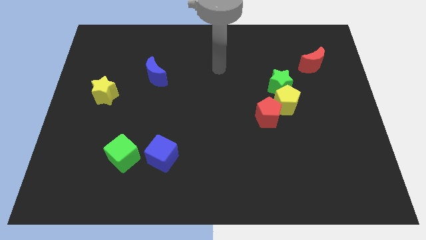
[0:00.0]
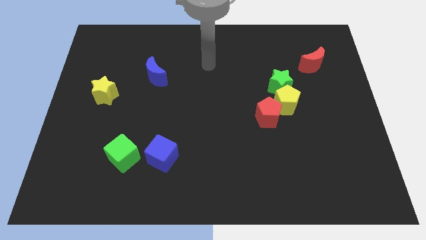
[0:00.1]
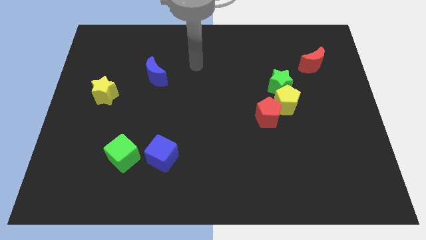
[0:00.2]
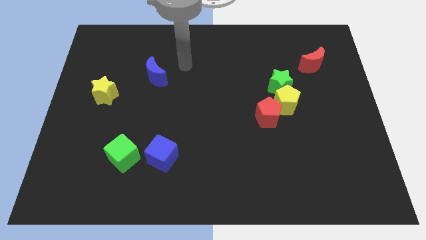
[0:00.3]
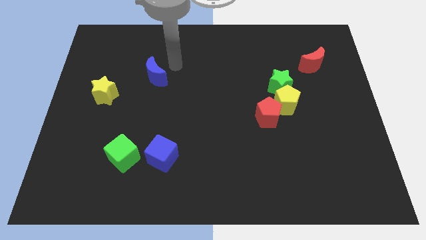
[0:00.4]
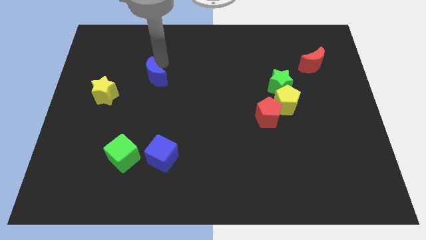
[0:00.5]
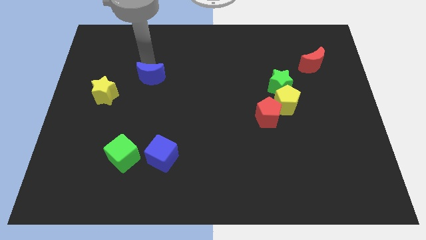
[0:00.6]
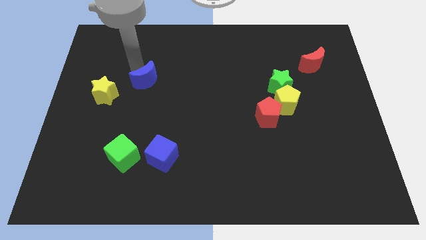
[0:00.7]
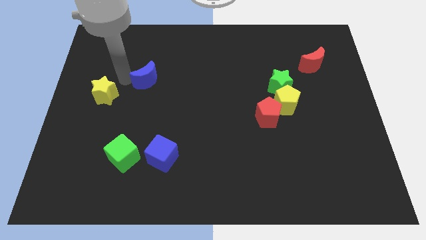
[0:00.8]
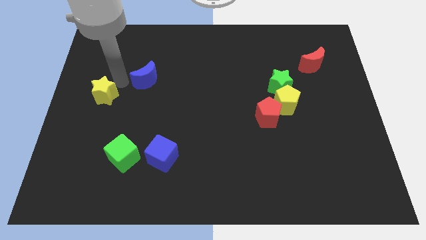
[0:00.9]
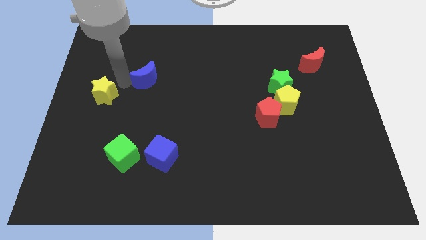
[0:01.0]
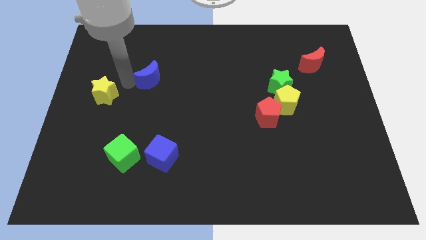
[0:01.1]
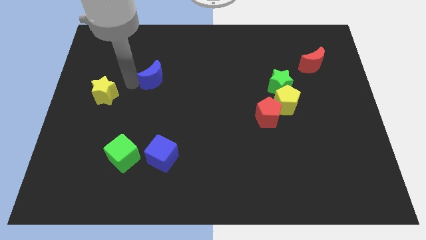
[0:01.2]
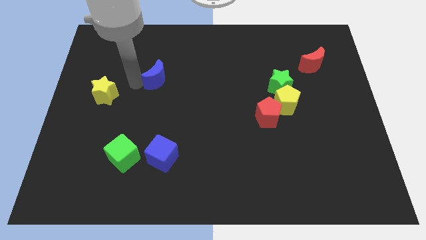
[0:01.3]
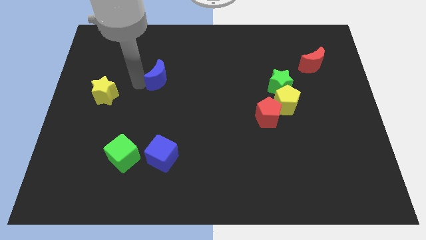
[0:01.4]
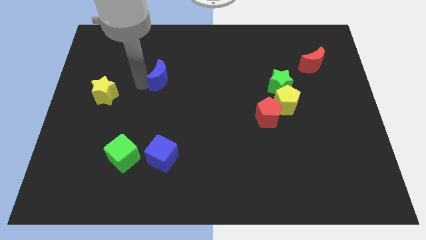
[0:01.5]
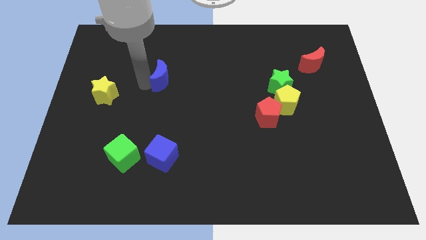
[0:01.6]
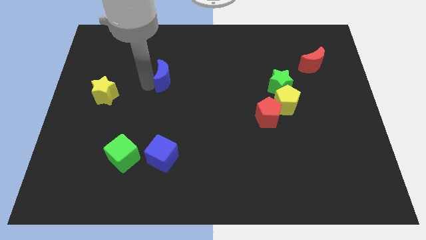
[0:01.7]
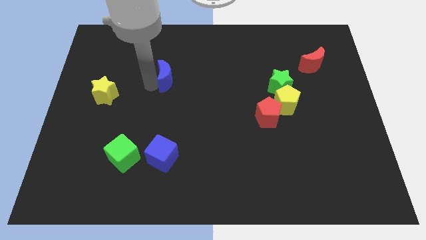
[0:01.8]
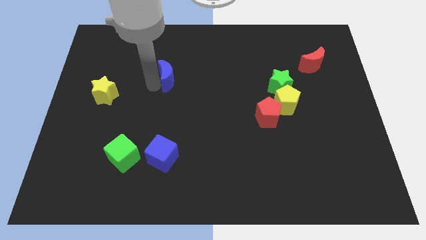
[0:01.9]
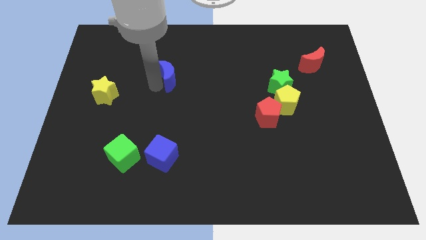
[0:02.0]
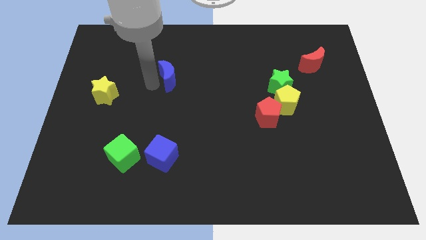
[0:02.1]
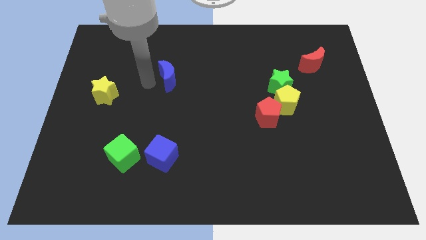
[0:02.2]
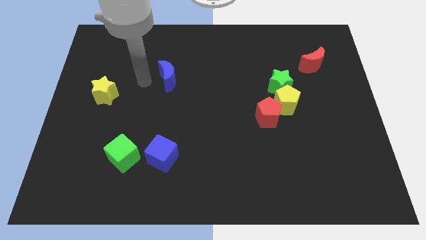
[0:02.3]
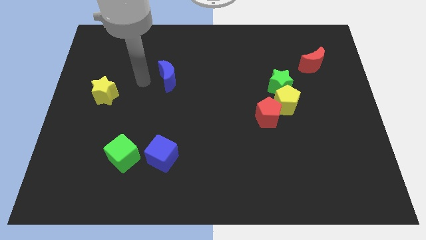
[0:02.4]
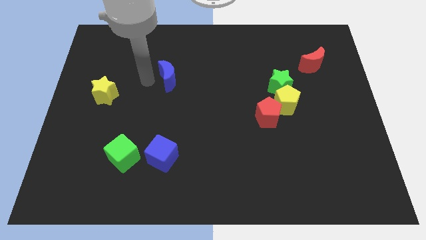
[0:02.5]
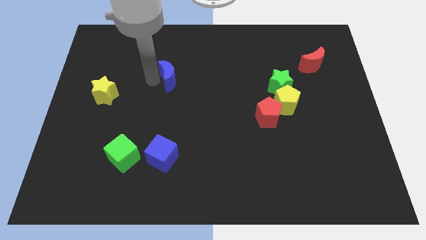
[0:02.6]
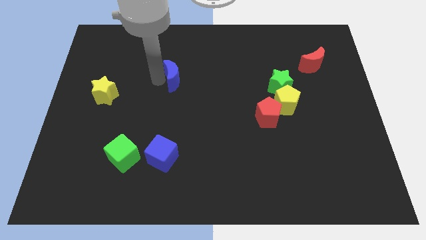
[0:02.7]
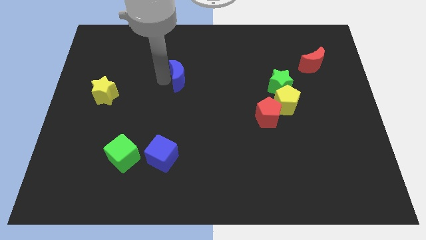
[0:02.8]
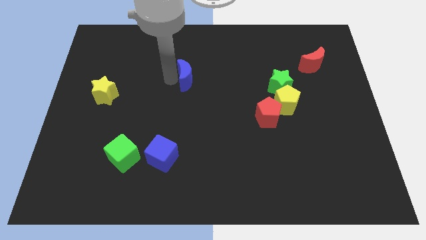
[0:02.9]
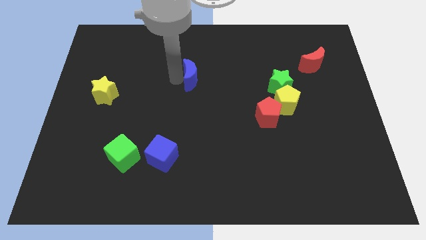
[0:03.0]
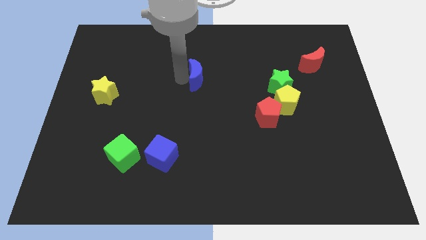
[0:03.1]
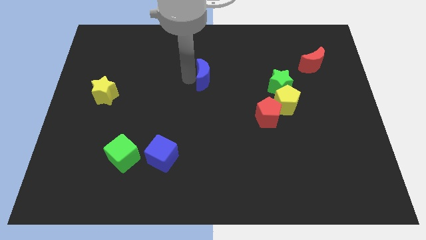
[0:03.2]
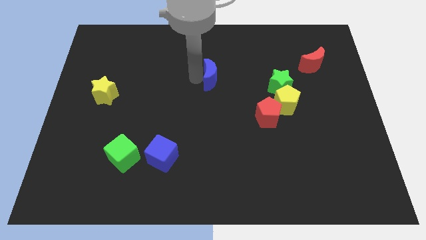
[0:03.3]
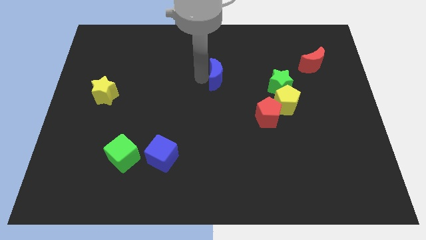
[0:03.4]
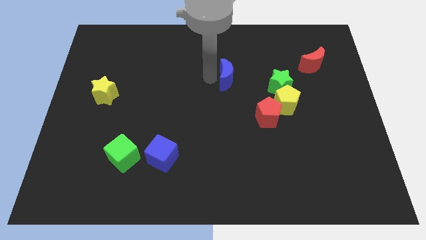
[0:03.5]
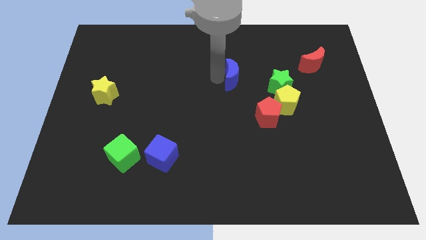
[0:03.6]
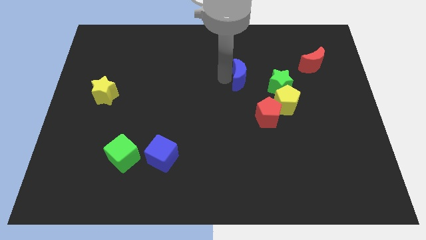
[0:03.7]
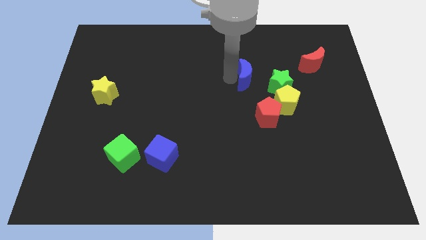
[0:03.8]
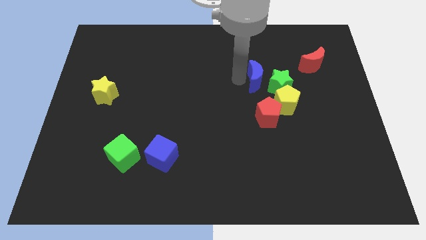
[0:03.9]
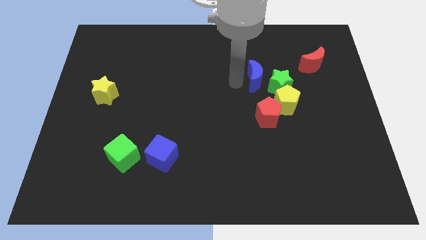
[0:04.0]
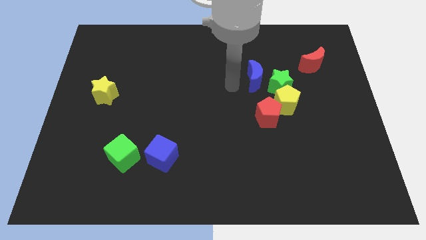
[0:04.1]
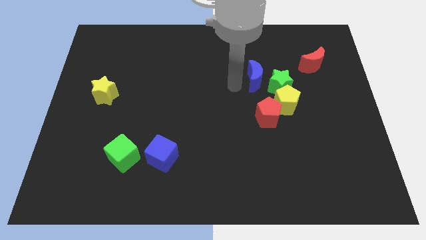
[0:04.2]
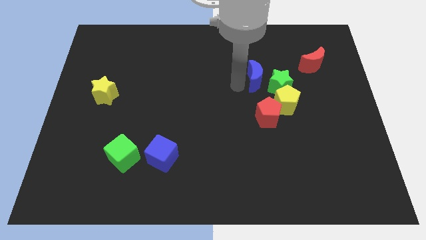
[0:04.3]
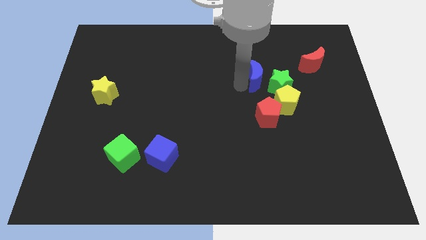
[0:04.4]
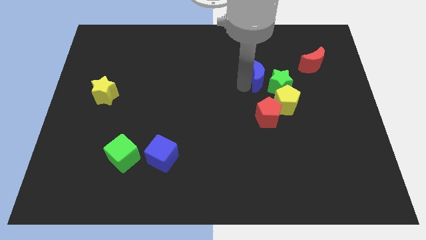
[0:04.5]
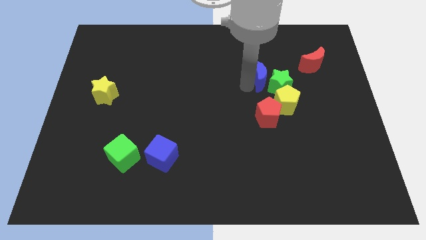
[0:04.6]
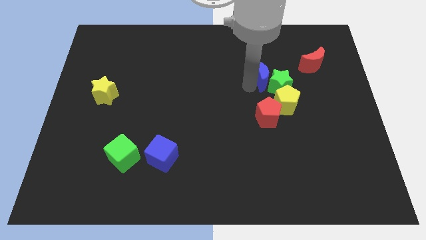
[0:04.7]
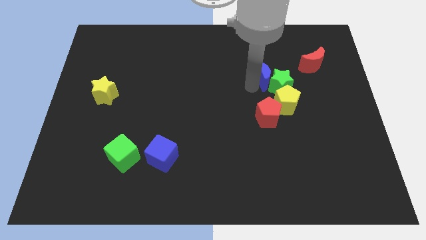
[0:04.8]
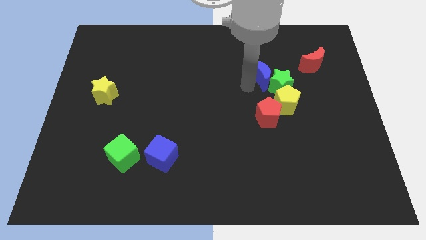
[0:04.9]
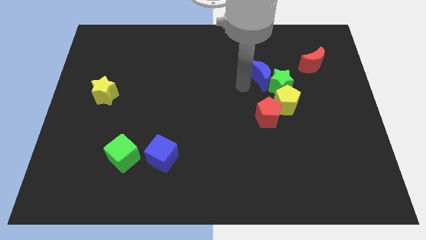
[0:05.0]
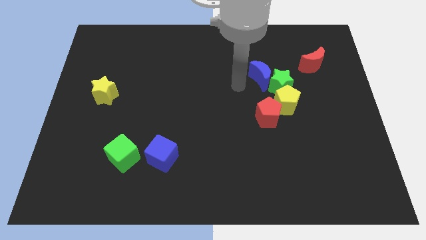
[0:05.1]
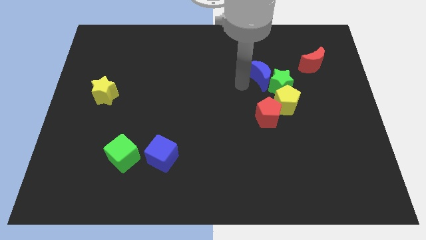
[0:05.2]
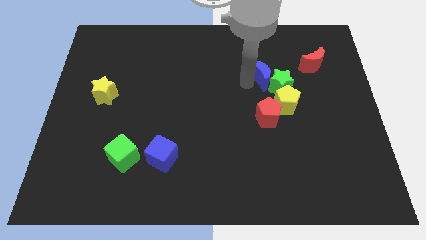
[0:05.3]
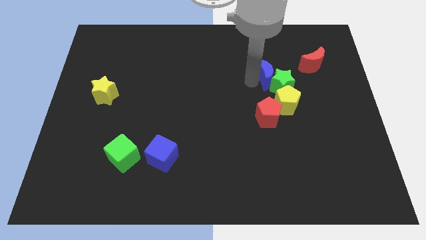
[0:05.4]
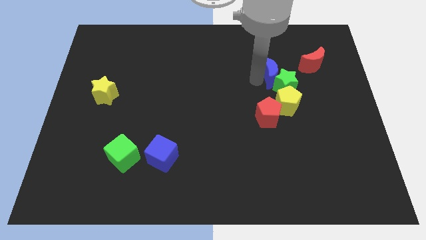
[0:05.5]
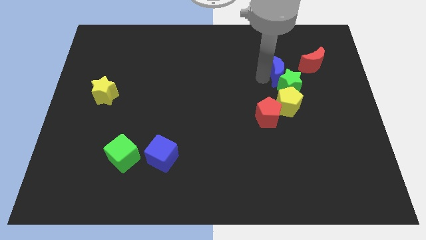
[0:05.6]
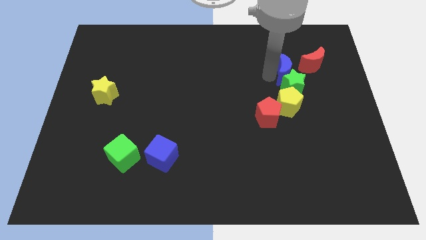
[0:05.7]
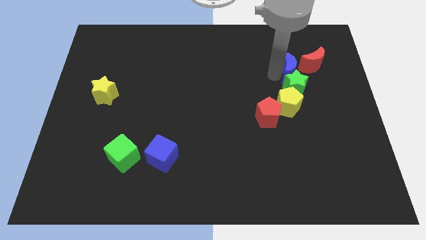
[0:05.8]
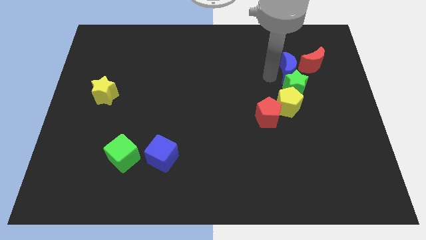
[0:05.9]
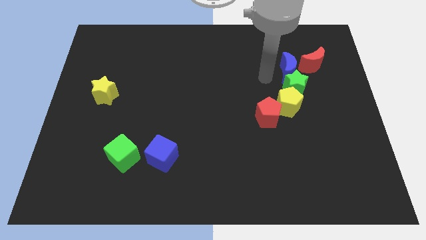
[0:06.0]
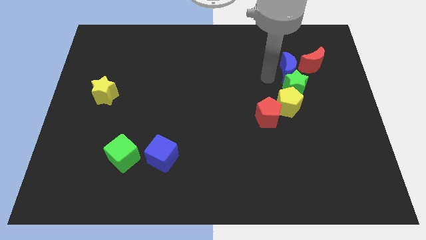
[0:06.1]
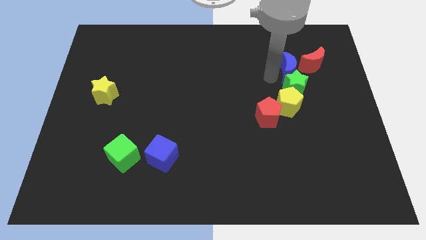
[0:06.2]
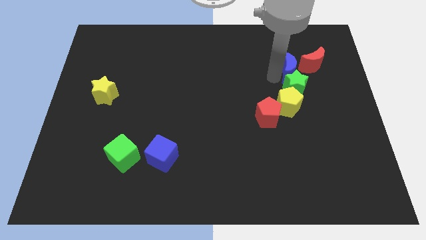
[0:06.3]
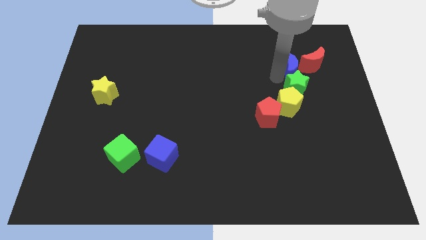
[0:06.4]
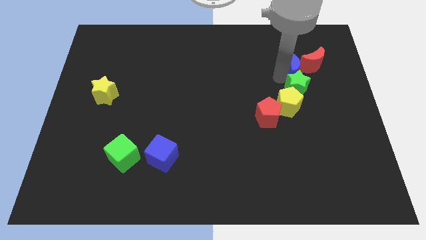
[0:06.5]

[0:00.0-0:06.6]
put the blue moon close to the red moon
